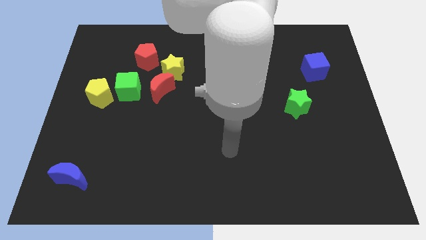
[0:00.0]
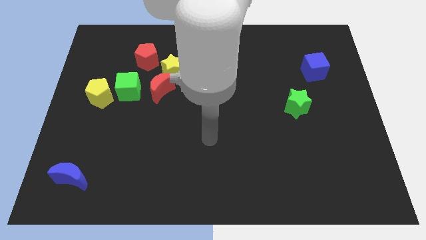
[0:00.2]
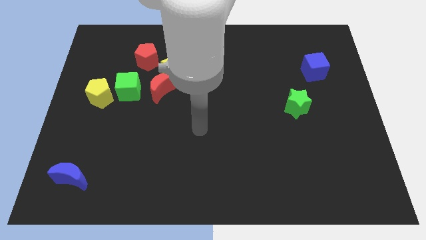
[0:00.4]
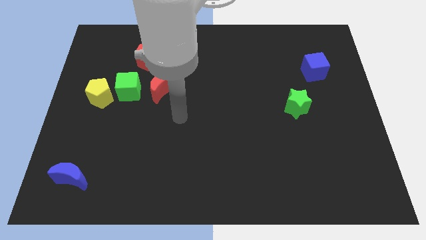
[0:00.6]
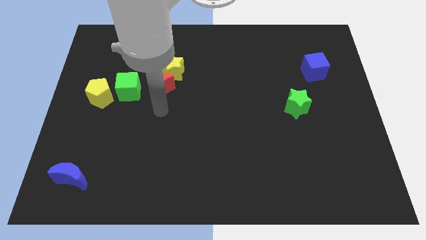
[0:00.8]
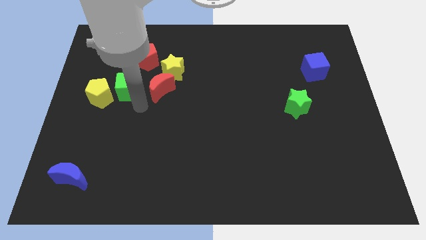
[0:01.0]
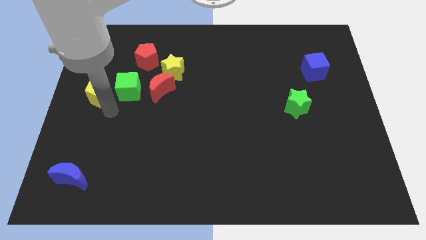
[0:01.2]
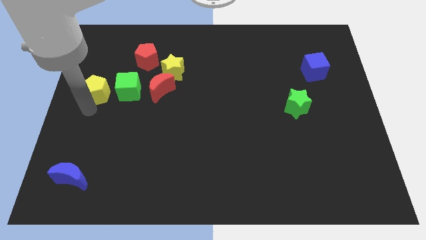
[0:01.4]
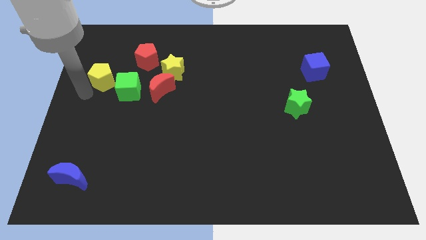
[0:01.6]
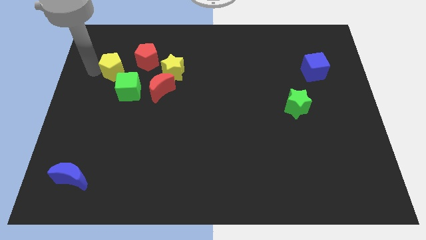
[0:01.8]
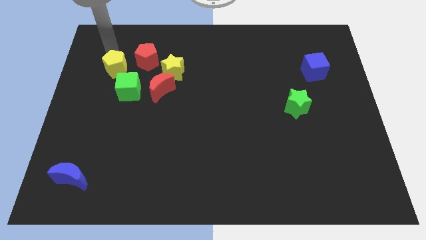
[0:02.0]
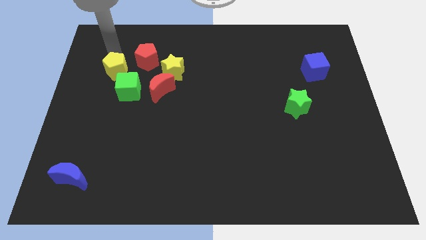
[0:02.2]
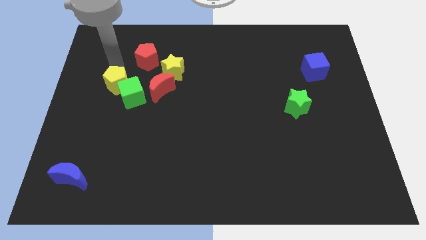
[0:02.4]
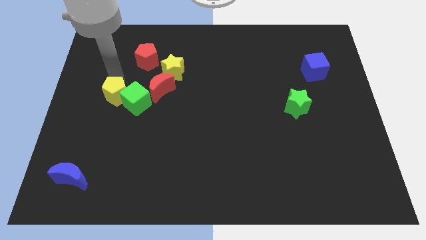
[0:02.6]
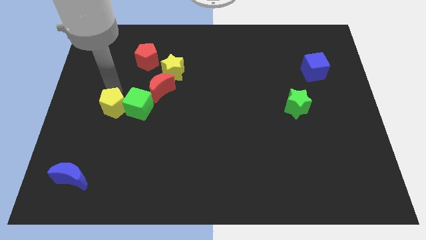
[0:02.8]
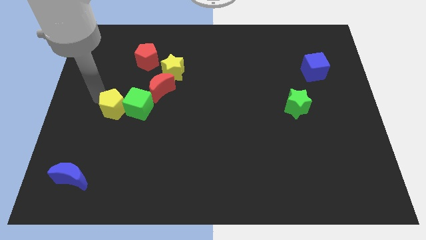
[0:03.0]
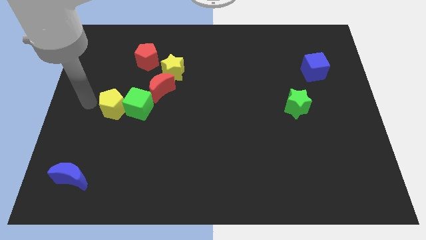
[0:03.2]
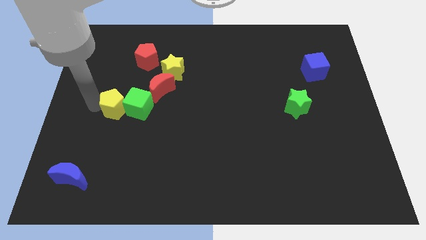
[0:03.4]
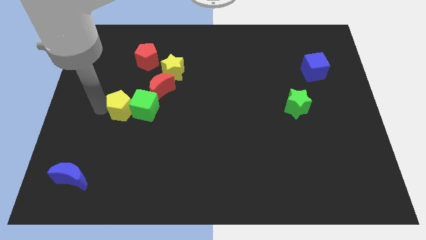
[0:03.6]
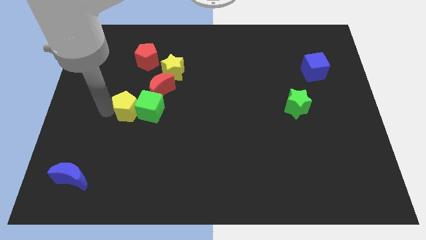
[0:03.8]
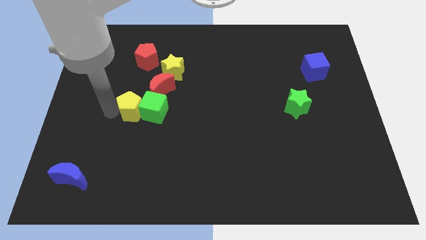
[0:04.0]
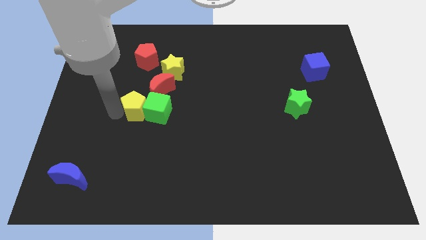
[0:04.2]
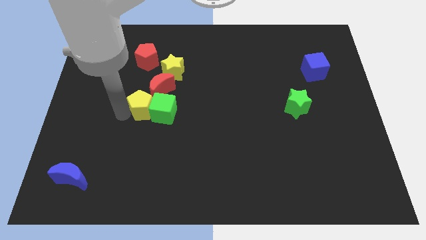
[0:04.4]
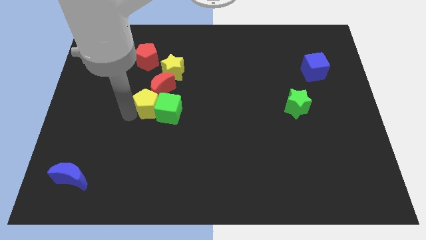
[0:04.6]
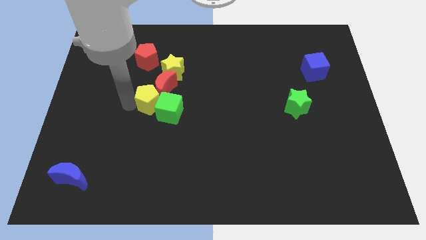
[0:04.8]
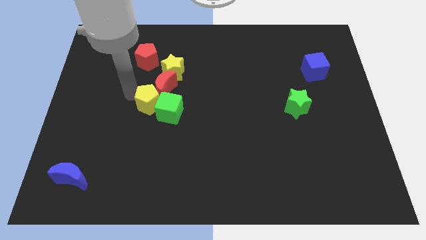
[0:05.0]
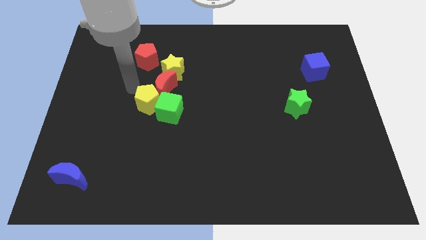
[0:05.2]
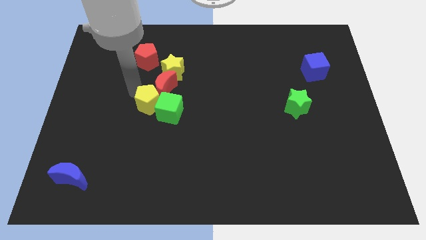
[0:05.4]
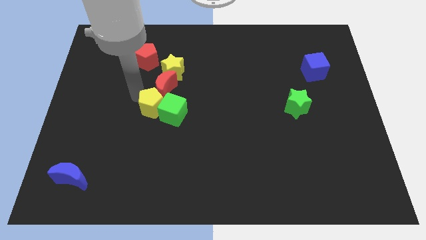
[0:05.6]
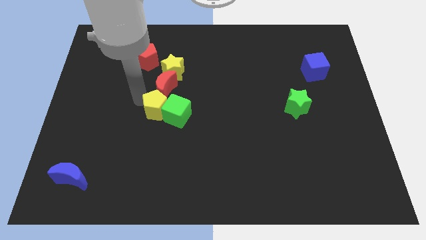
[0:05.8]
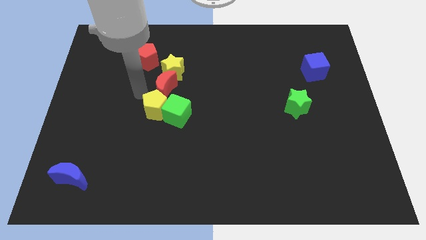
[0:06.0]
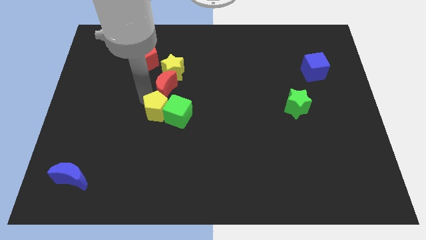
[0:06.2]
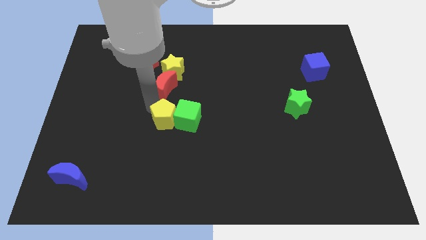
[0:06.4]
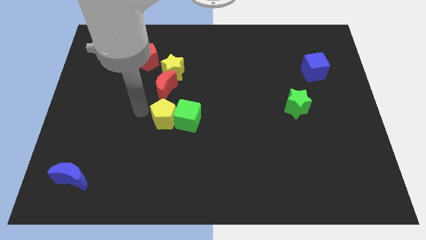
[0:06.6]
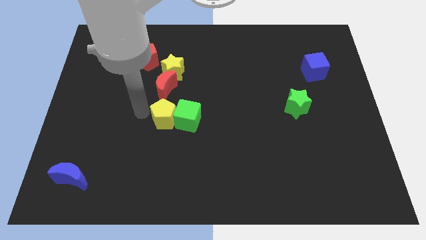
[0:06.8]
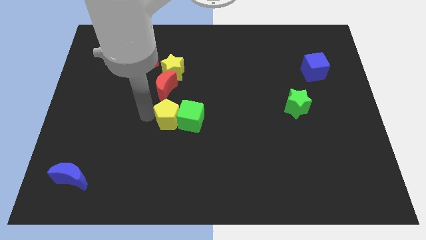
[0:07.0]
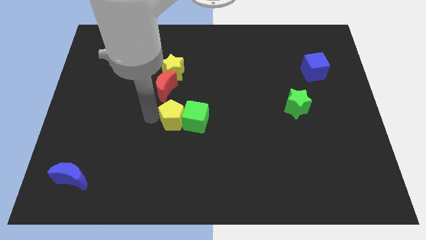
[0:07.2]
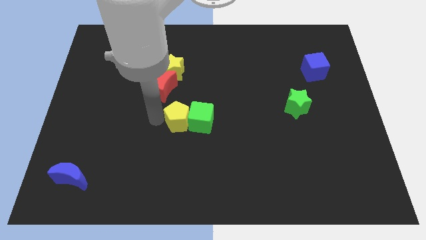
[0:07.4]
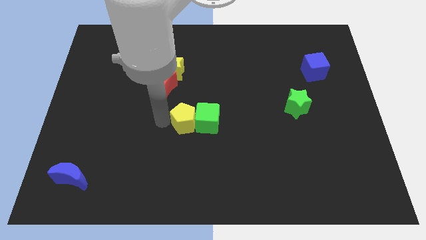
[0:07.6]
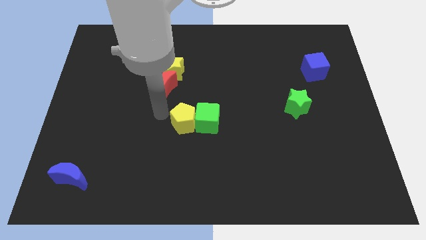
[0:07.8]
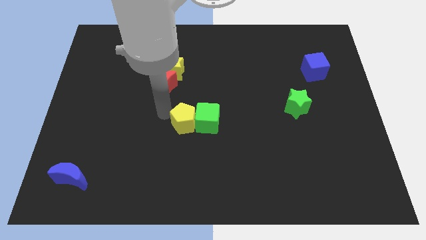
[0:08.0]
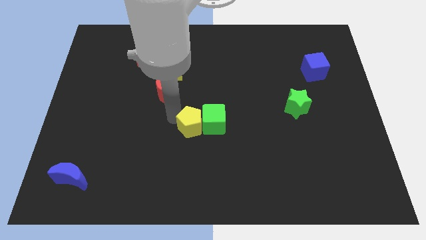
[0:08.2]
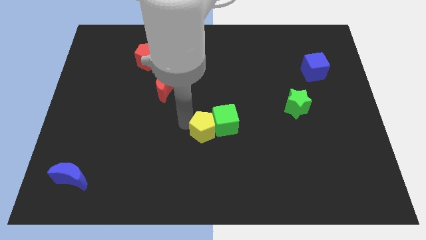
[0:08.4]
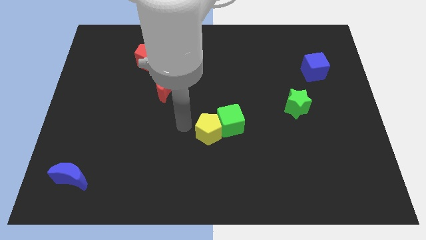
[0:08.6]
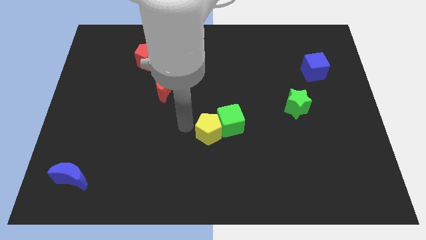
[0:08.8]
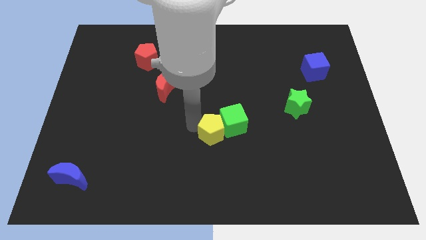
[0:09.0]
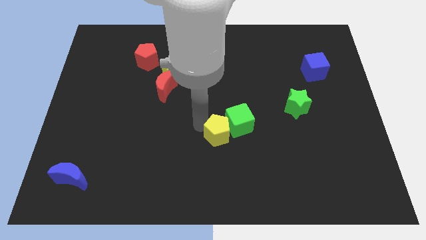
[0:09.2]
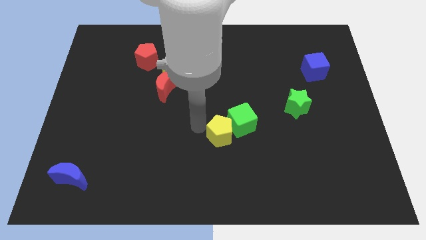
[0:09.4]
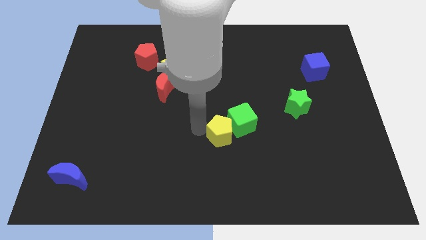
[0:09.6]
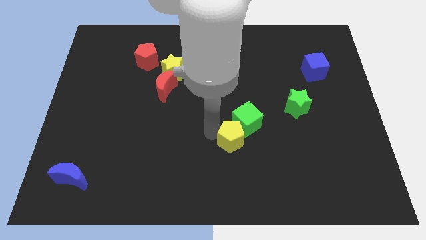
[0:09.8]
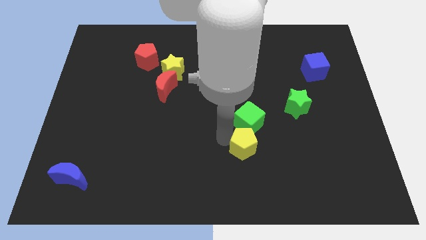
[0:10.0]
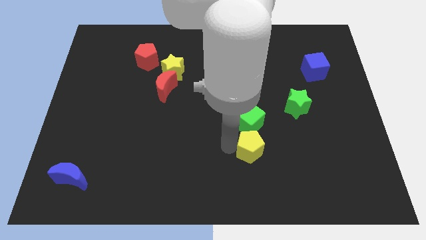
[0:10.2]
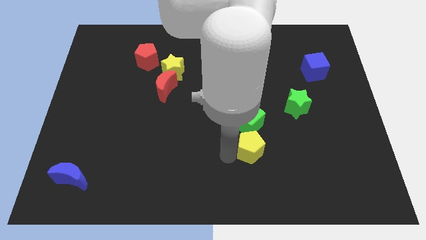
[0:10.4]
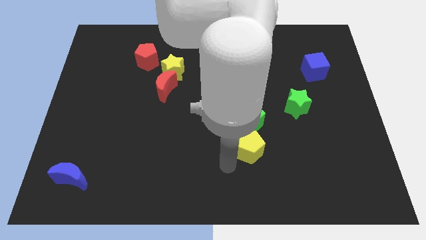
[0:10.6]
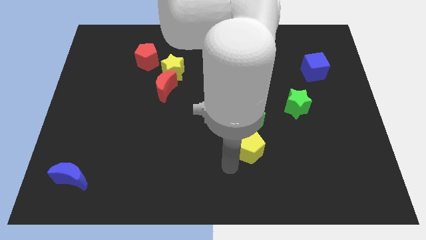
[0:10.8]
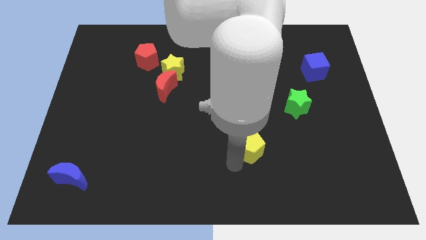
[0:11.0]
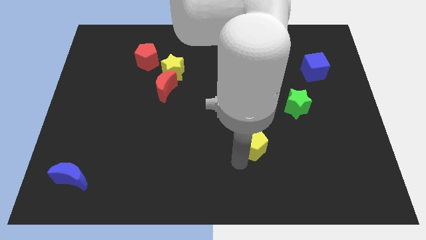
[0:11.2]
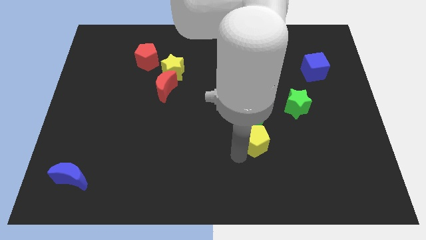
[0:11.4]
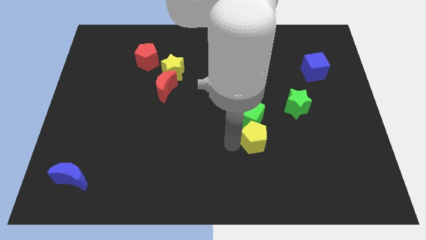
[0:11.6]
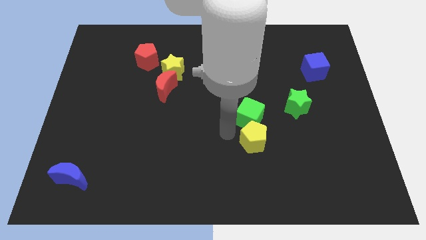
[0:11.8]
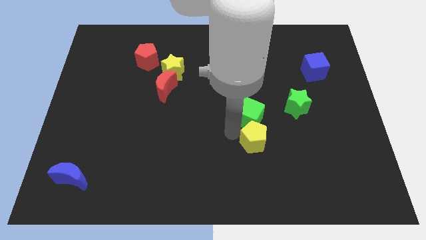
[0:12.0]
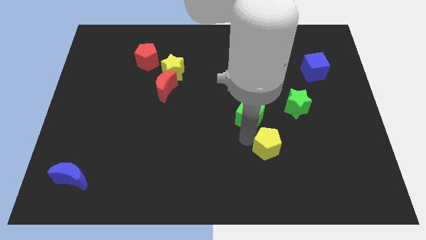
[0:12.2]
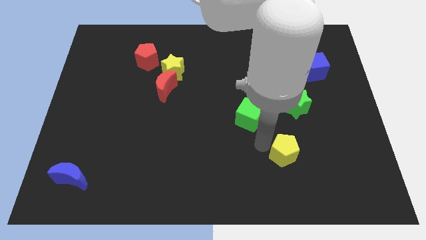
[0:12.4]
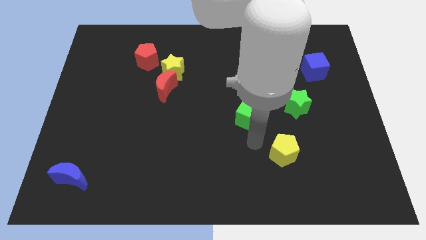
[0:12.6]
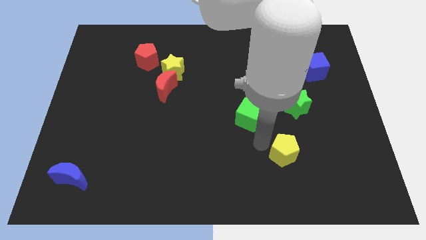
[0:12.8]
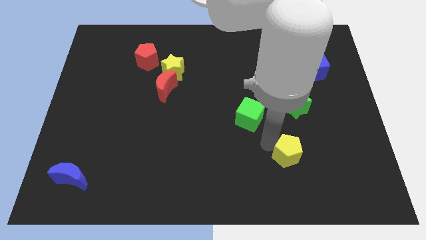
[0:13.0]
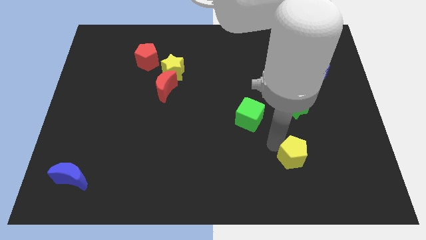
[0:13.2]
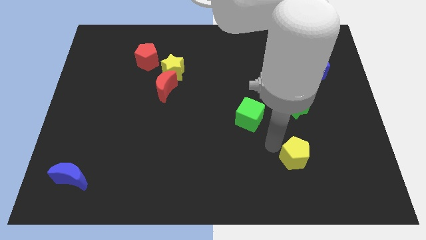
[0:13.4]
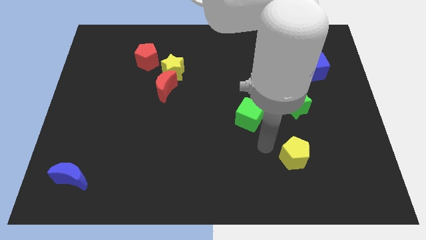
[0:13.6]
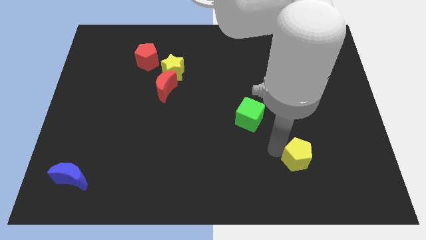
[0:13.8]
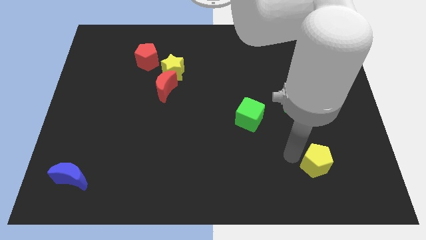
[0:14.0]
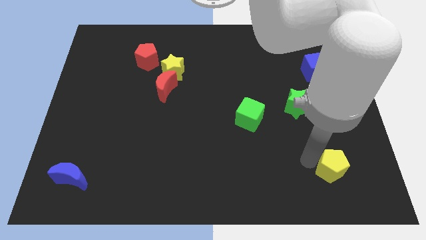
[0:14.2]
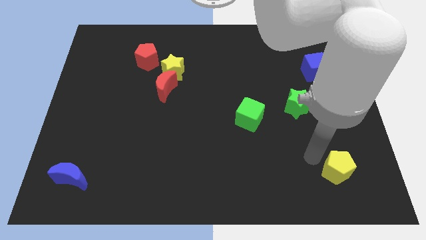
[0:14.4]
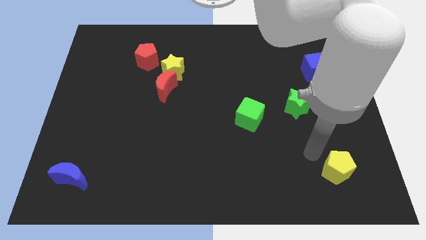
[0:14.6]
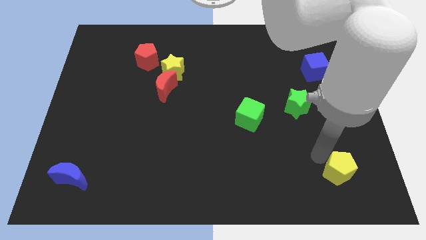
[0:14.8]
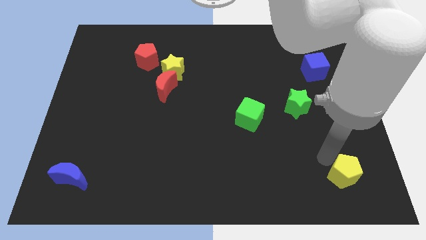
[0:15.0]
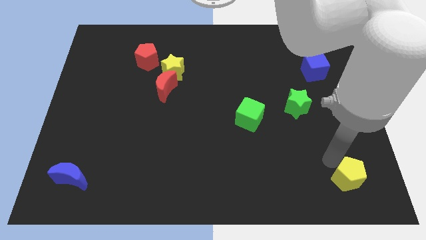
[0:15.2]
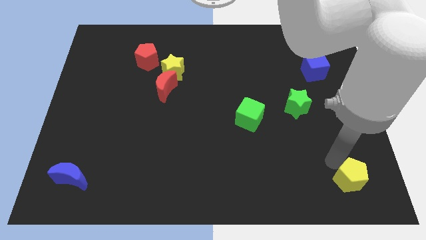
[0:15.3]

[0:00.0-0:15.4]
move the yellow pentagon to the bottom right
